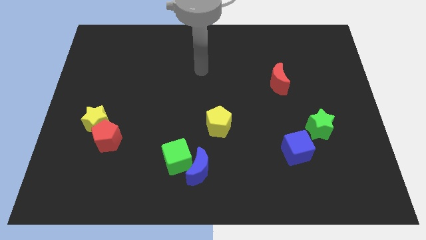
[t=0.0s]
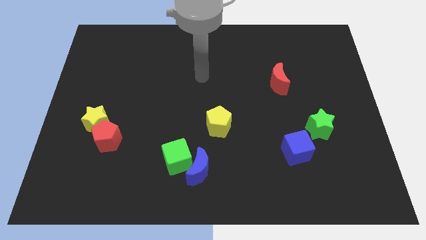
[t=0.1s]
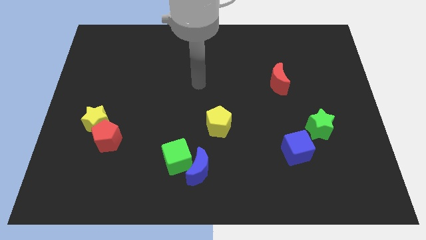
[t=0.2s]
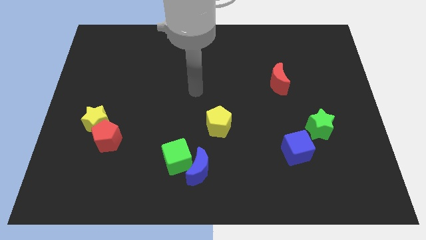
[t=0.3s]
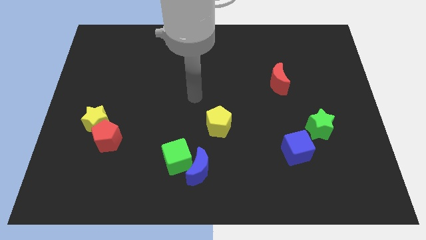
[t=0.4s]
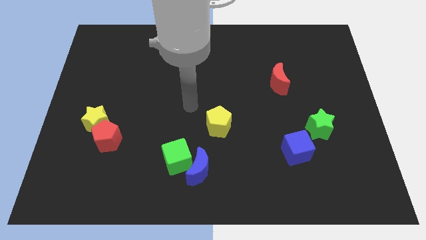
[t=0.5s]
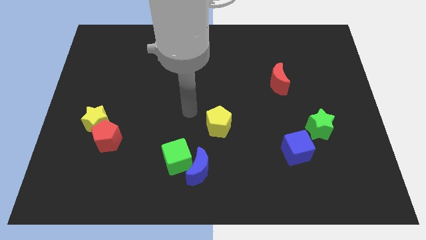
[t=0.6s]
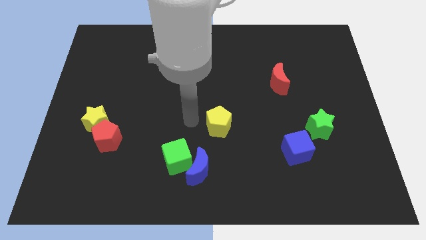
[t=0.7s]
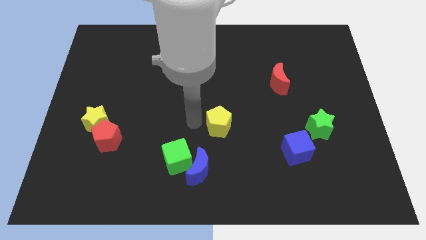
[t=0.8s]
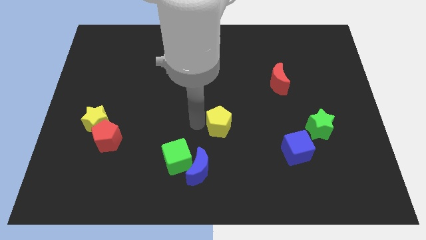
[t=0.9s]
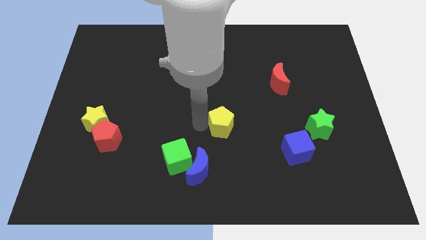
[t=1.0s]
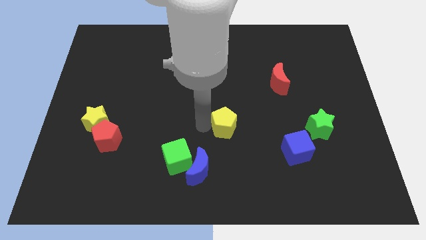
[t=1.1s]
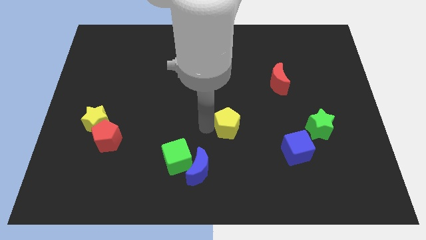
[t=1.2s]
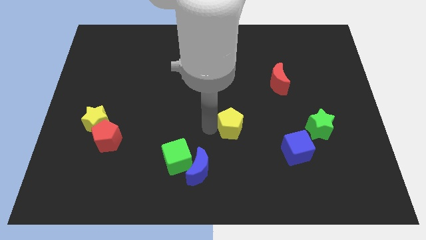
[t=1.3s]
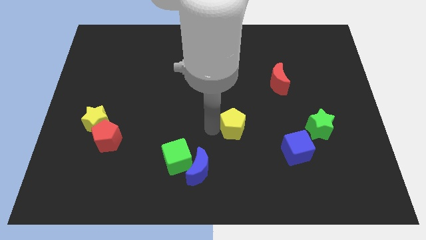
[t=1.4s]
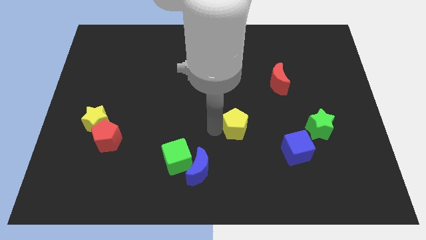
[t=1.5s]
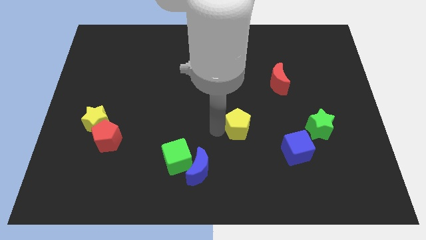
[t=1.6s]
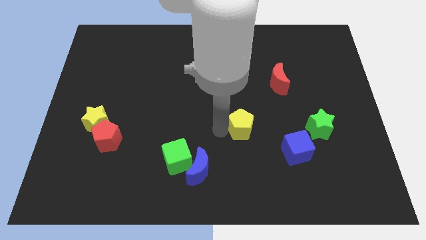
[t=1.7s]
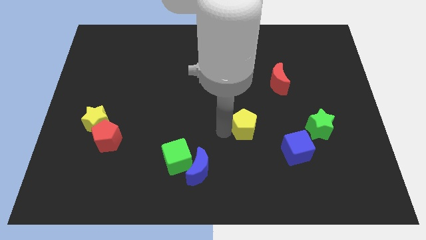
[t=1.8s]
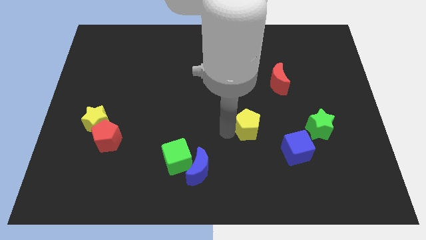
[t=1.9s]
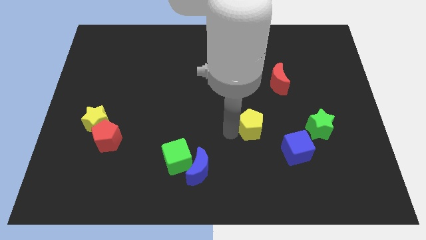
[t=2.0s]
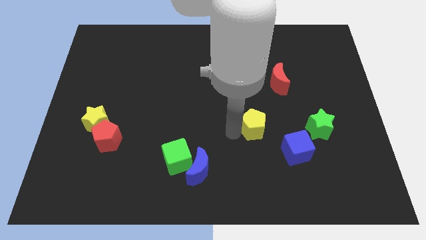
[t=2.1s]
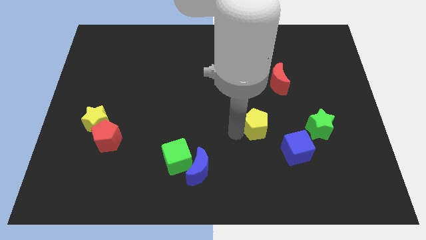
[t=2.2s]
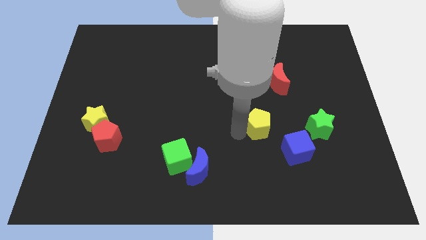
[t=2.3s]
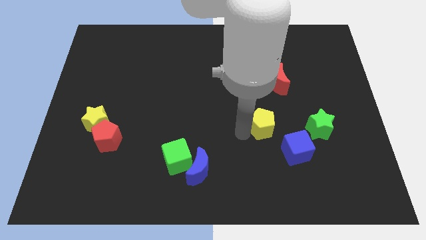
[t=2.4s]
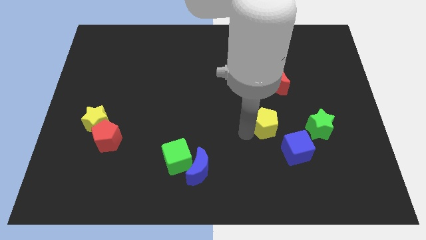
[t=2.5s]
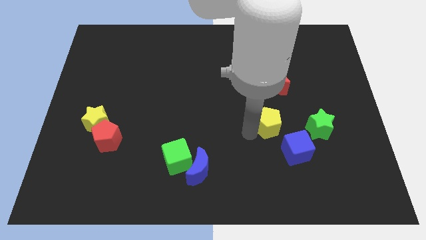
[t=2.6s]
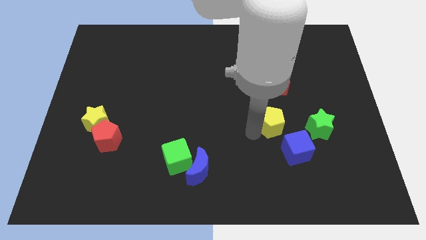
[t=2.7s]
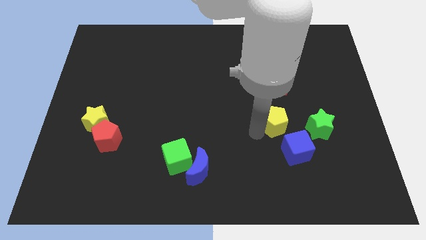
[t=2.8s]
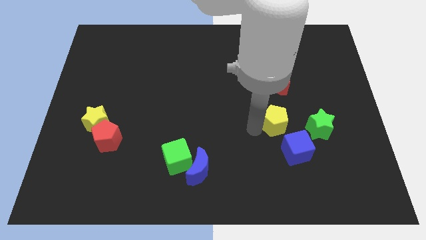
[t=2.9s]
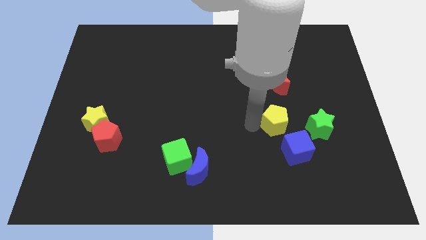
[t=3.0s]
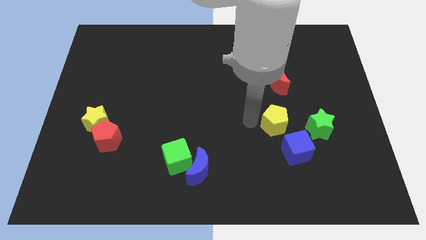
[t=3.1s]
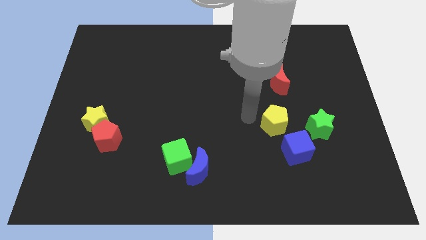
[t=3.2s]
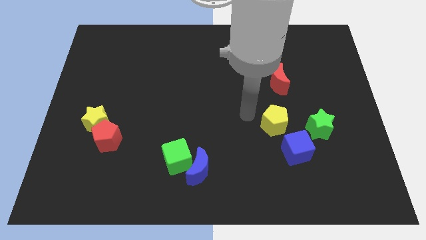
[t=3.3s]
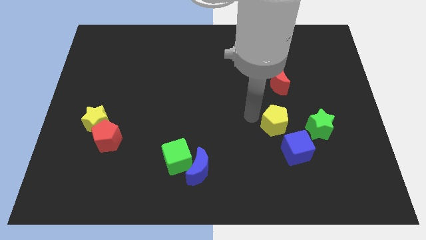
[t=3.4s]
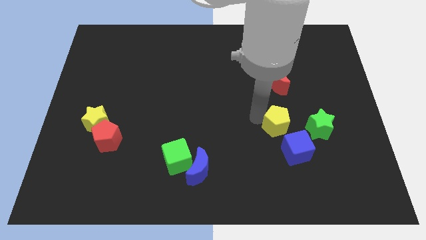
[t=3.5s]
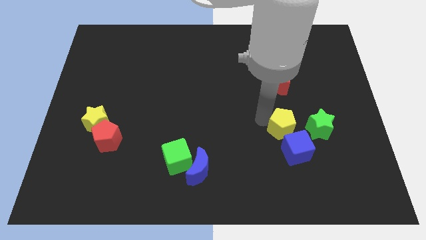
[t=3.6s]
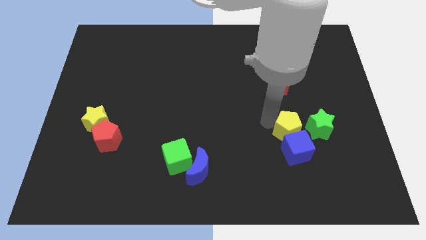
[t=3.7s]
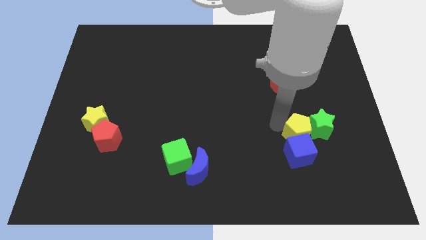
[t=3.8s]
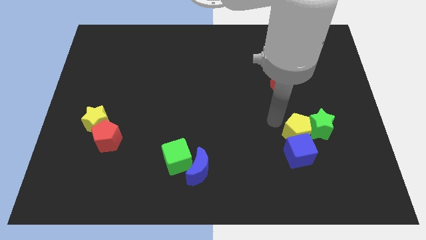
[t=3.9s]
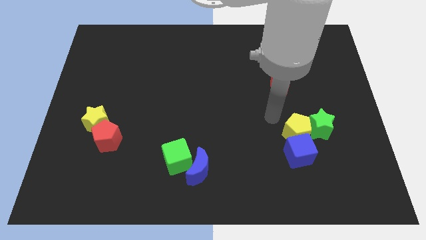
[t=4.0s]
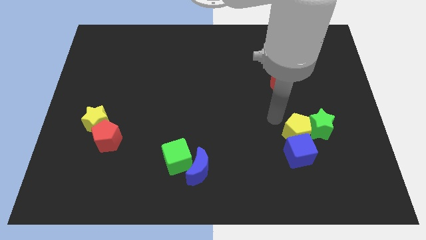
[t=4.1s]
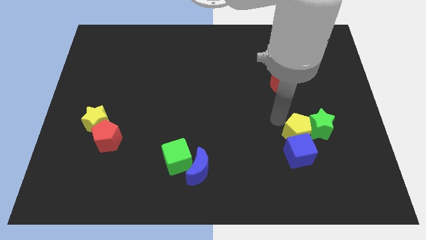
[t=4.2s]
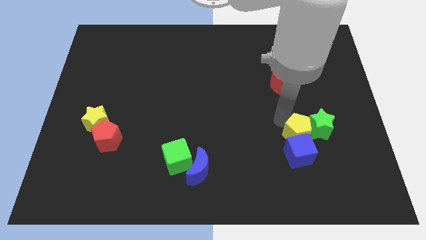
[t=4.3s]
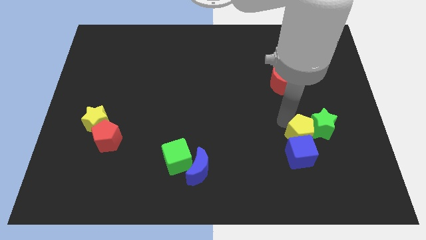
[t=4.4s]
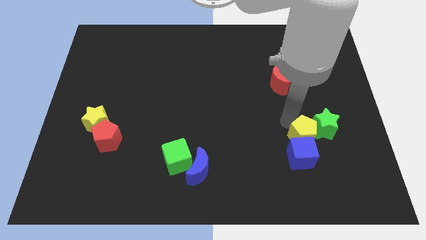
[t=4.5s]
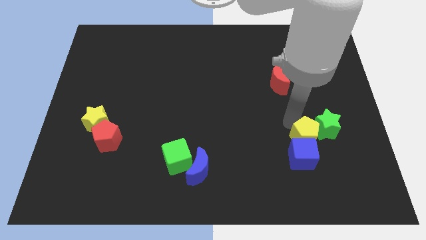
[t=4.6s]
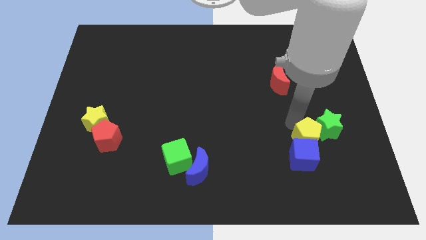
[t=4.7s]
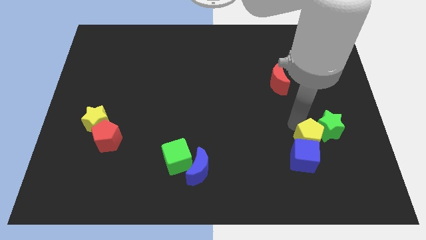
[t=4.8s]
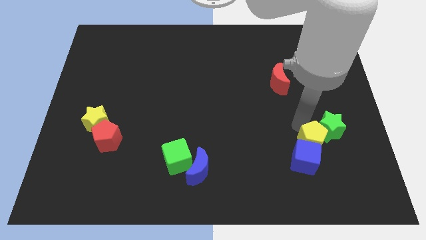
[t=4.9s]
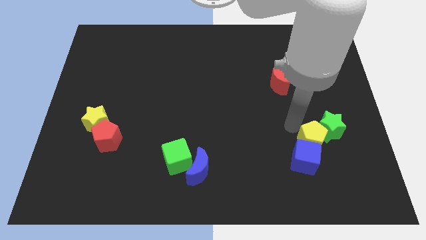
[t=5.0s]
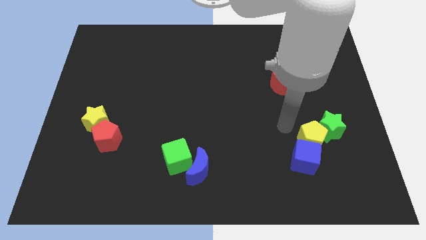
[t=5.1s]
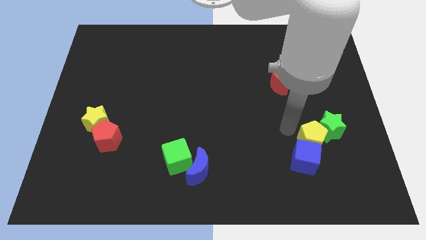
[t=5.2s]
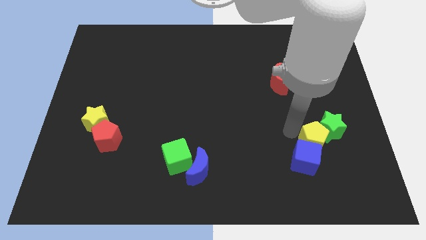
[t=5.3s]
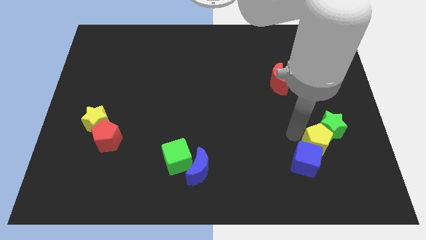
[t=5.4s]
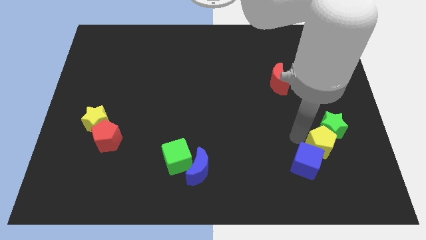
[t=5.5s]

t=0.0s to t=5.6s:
put the yellow pentagon just right of the blue cube

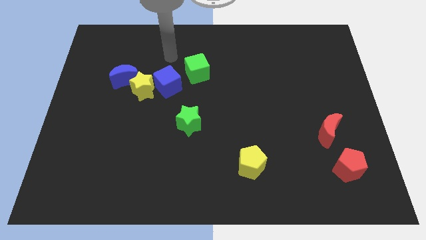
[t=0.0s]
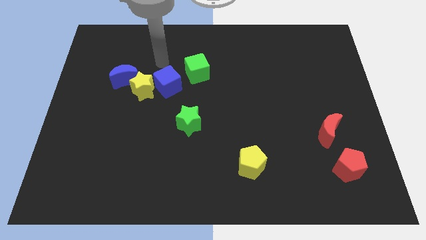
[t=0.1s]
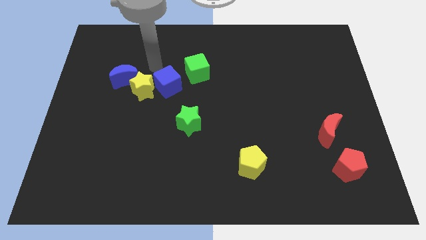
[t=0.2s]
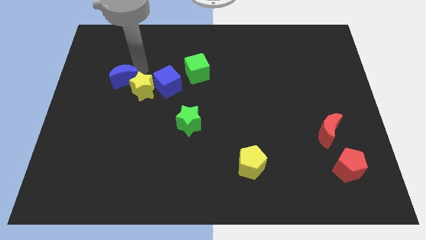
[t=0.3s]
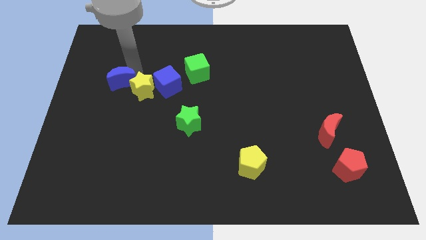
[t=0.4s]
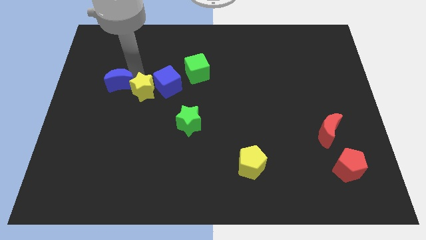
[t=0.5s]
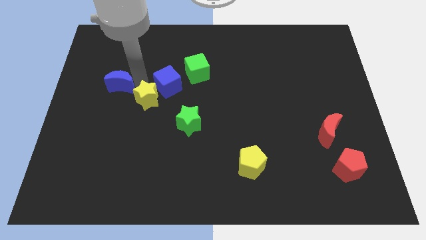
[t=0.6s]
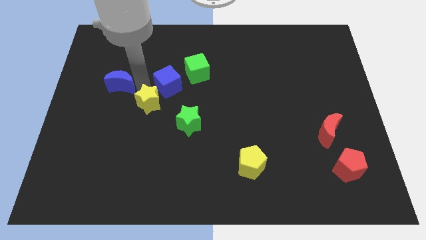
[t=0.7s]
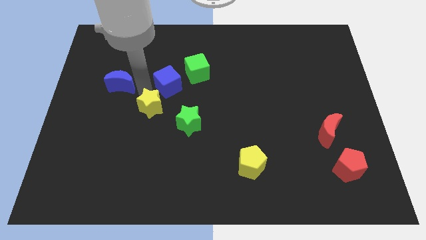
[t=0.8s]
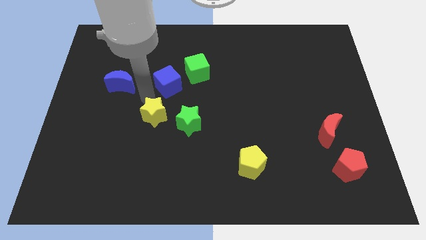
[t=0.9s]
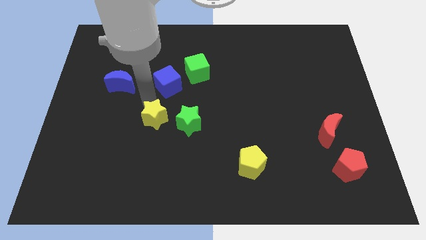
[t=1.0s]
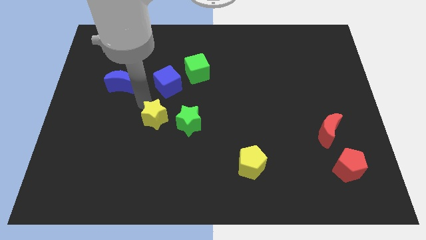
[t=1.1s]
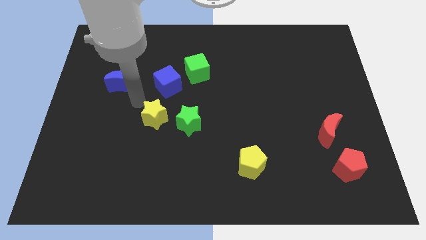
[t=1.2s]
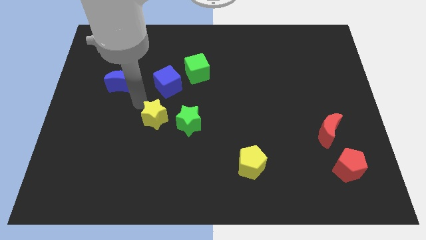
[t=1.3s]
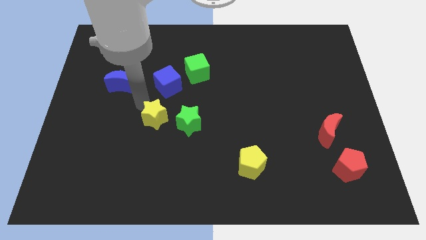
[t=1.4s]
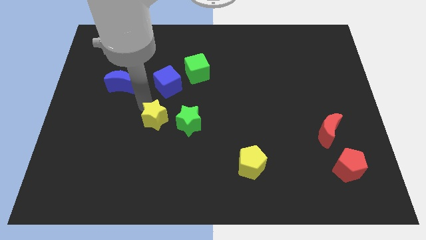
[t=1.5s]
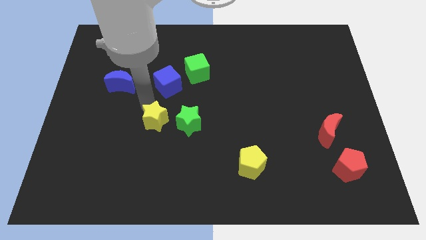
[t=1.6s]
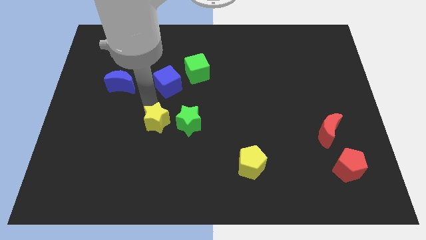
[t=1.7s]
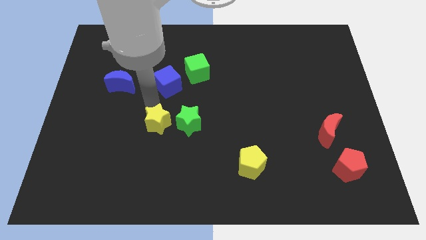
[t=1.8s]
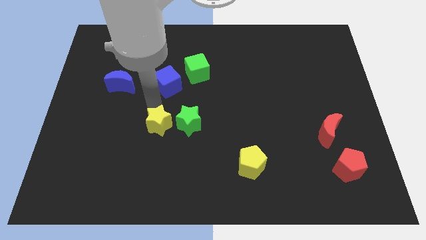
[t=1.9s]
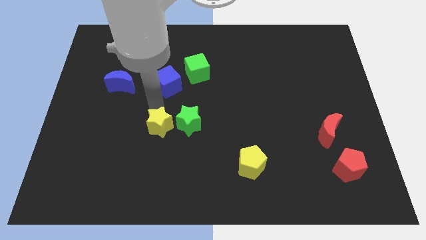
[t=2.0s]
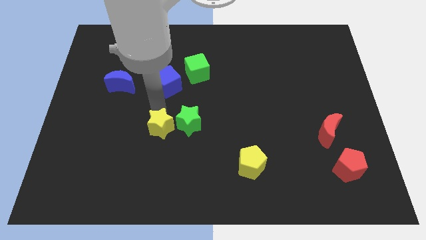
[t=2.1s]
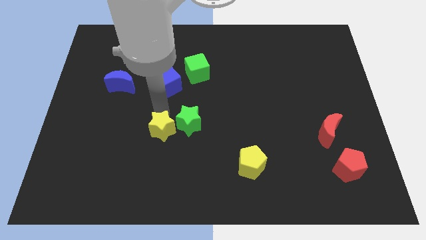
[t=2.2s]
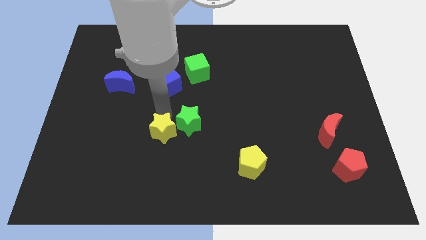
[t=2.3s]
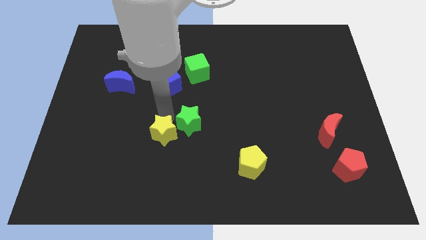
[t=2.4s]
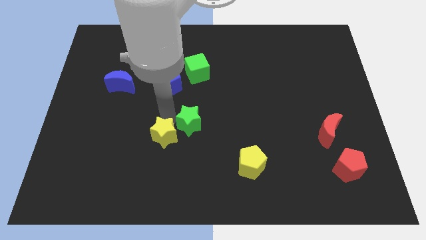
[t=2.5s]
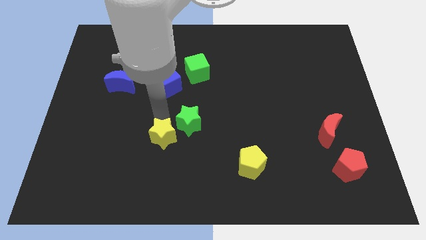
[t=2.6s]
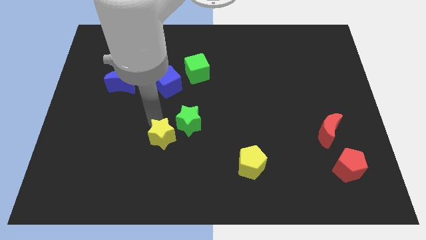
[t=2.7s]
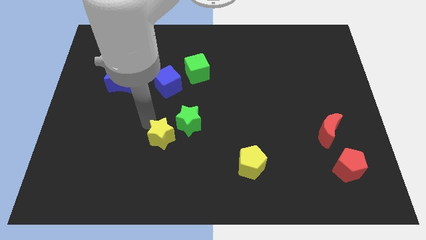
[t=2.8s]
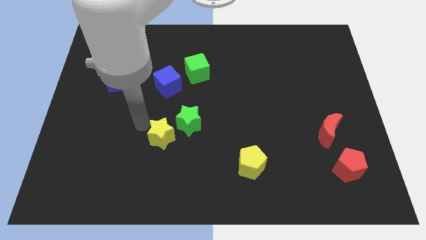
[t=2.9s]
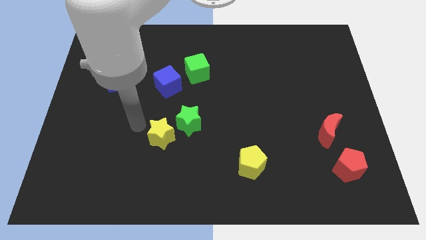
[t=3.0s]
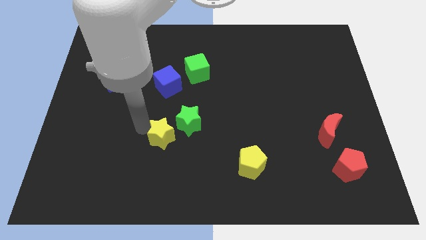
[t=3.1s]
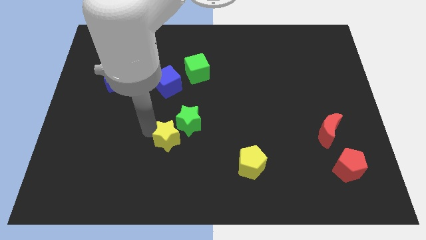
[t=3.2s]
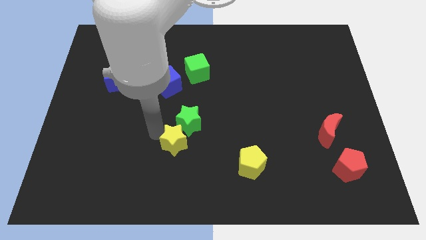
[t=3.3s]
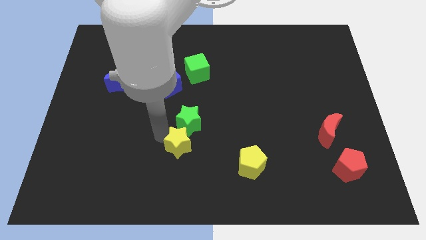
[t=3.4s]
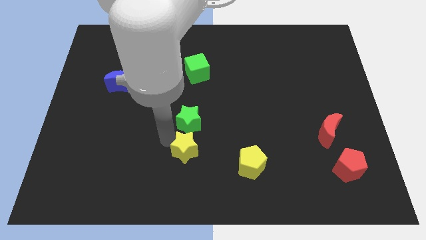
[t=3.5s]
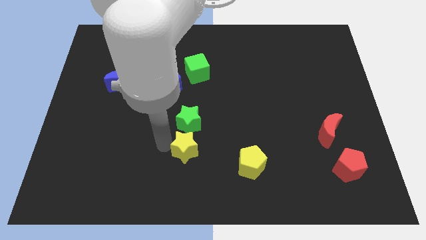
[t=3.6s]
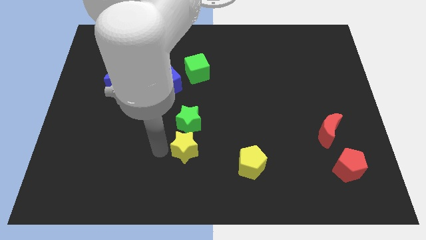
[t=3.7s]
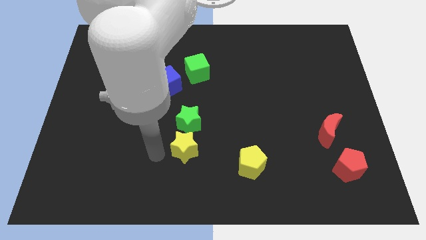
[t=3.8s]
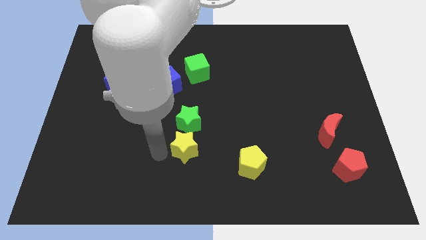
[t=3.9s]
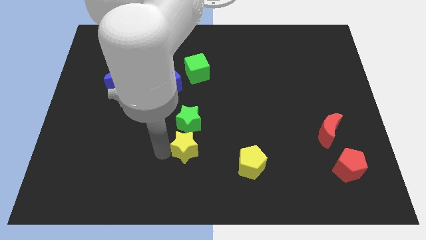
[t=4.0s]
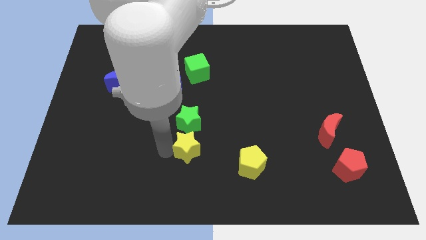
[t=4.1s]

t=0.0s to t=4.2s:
push the yellow star to the bottom right side of the green star
